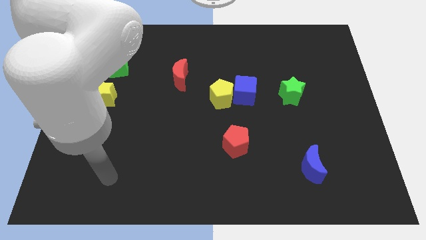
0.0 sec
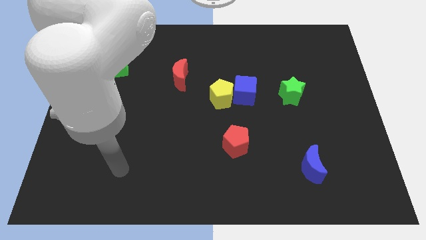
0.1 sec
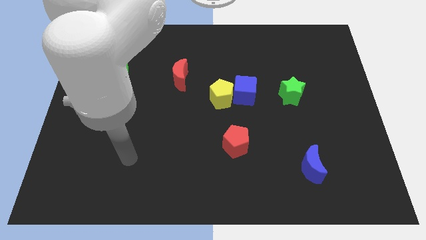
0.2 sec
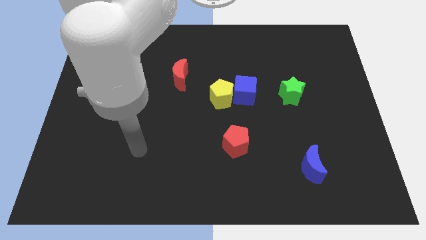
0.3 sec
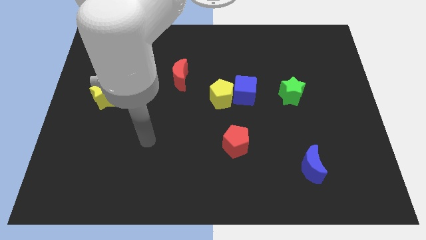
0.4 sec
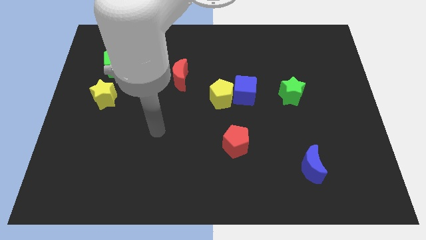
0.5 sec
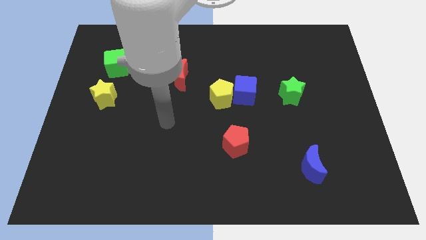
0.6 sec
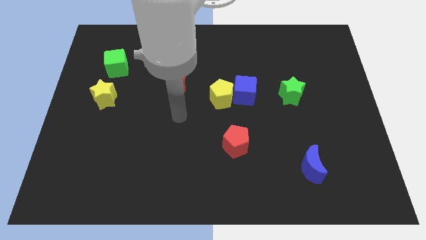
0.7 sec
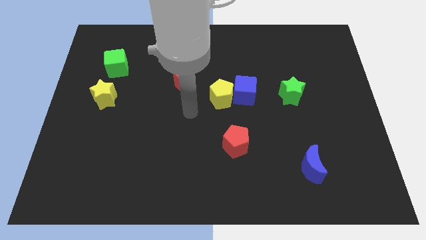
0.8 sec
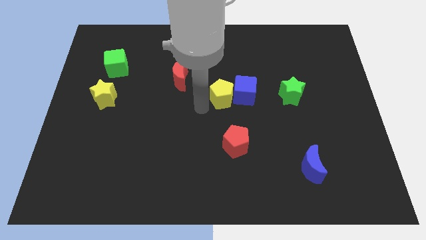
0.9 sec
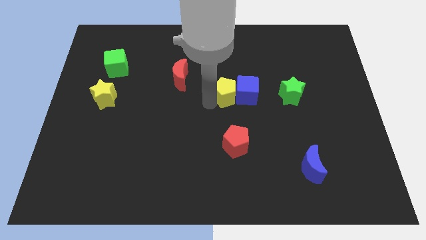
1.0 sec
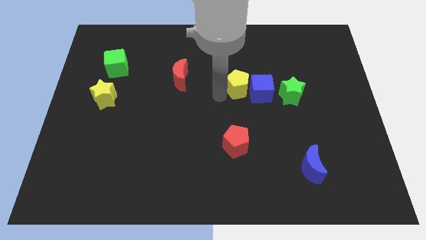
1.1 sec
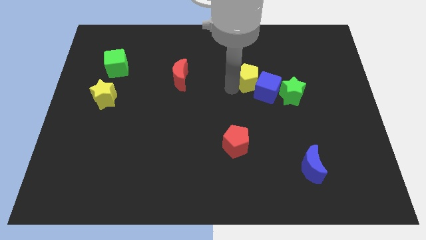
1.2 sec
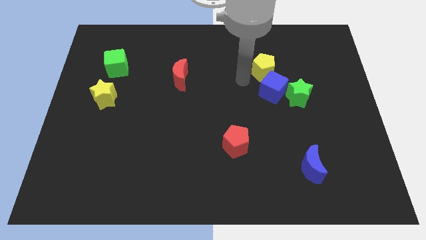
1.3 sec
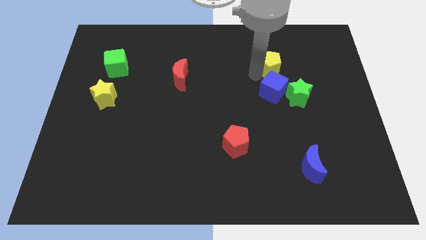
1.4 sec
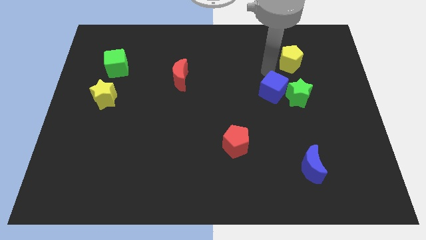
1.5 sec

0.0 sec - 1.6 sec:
move the blue cube away from the yellow pentagon

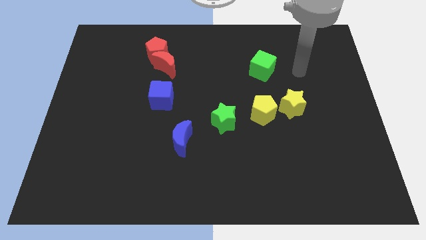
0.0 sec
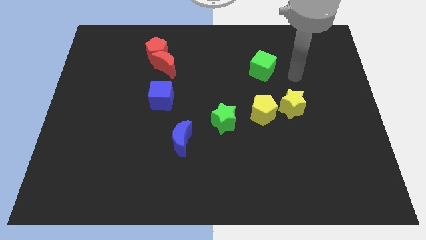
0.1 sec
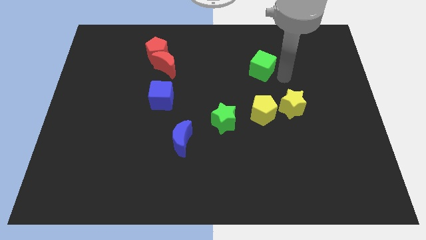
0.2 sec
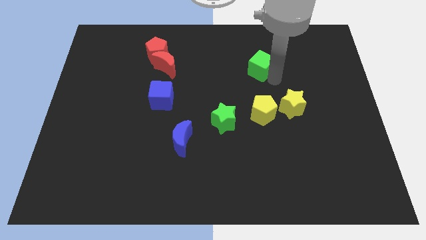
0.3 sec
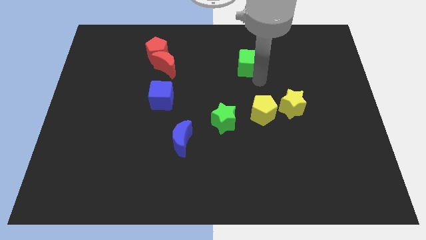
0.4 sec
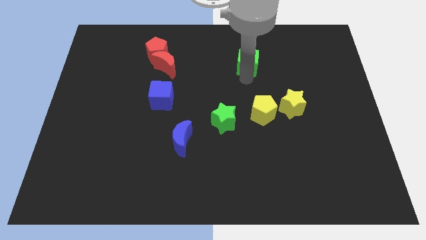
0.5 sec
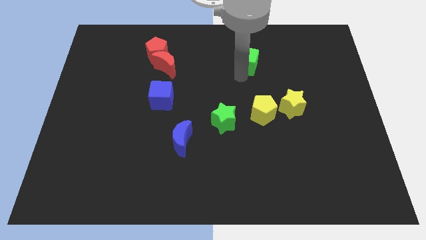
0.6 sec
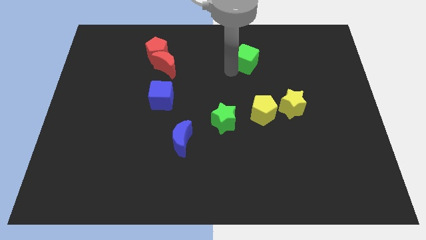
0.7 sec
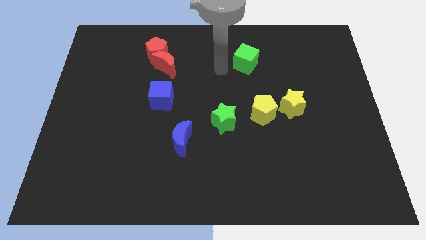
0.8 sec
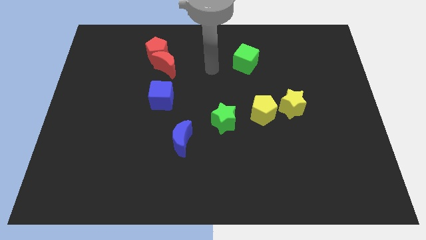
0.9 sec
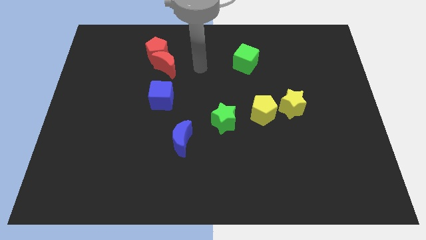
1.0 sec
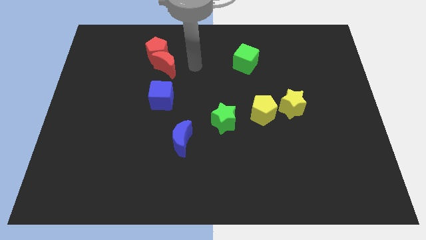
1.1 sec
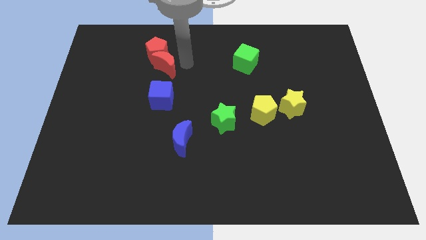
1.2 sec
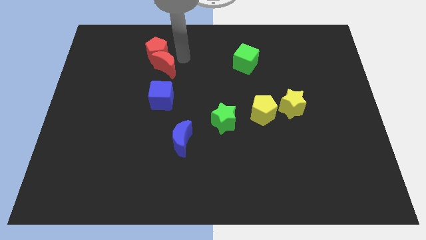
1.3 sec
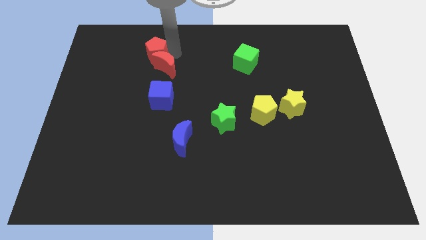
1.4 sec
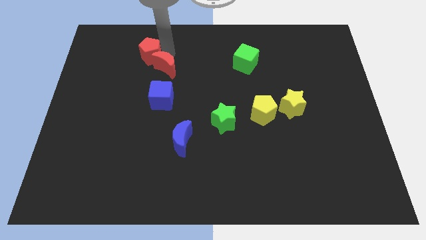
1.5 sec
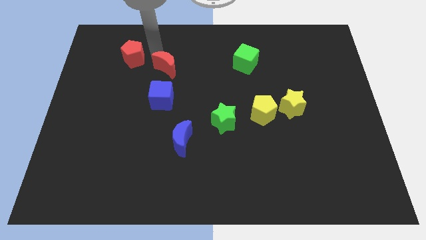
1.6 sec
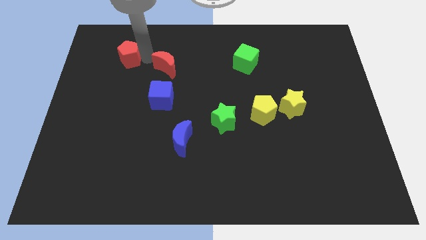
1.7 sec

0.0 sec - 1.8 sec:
separate the red moon from the red pentagon

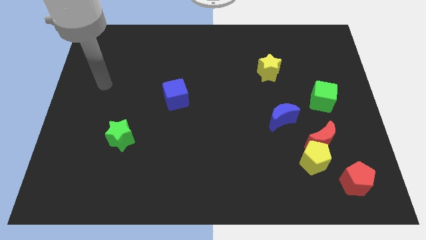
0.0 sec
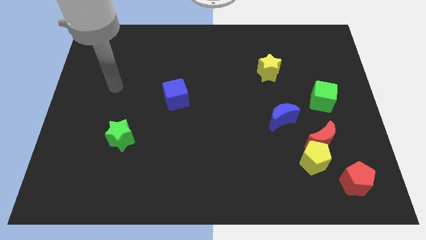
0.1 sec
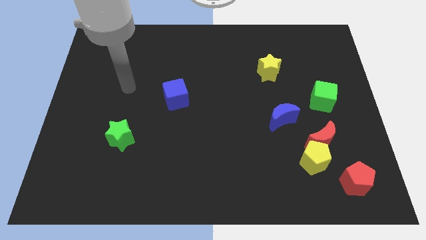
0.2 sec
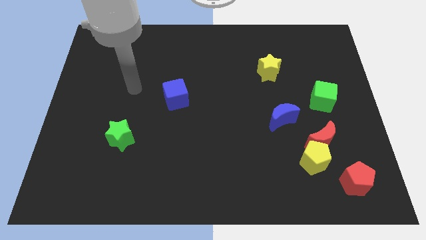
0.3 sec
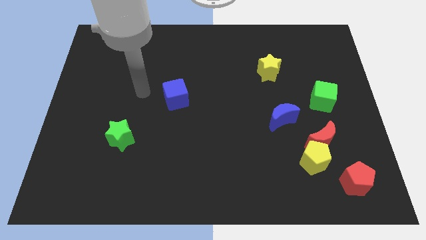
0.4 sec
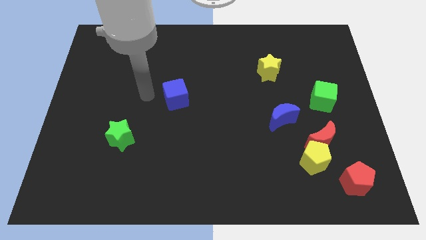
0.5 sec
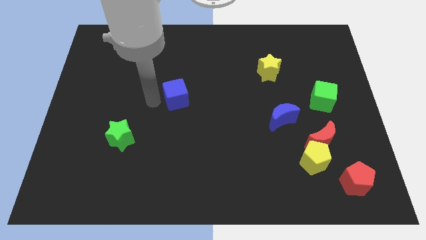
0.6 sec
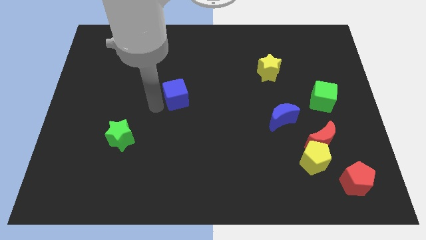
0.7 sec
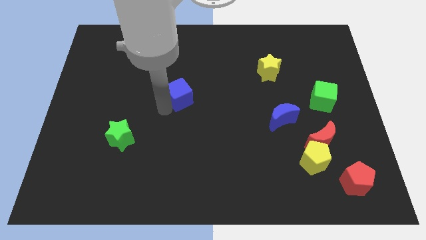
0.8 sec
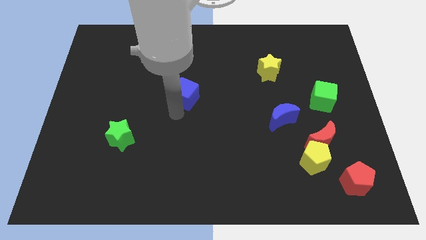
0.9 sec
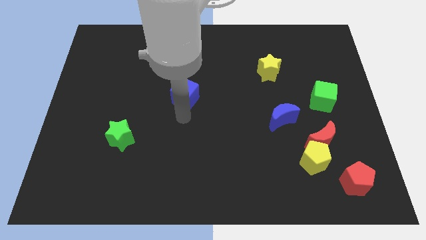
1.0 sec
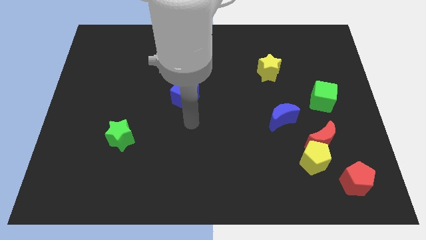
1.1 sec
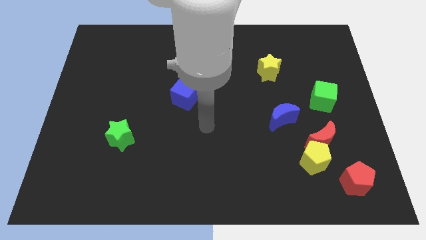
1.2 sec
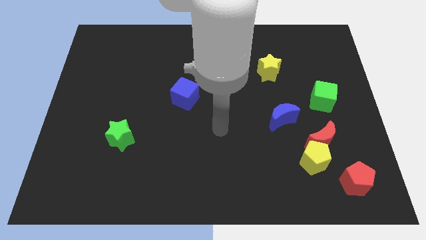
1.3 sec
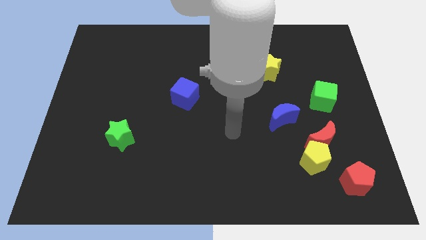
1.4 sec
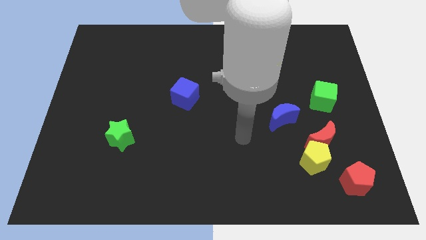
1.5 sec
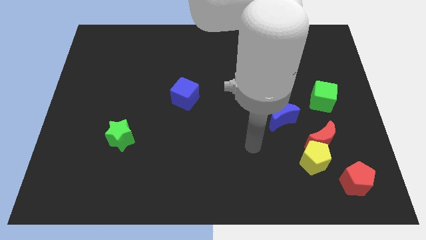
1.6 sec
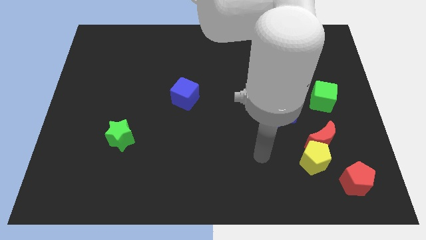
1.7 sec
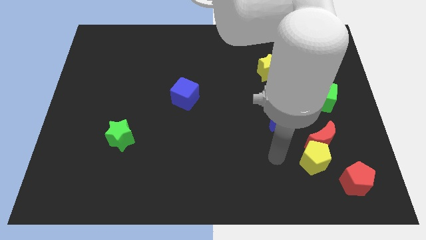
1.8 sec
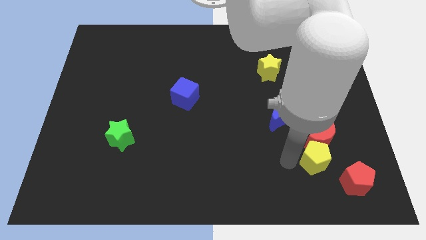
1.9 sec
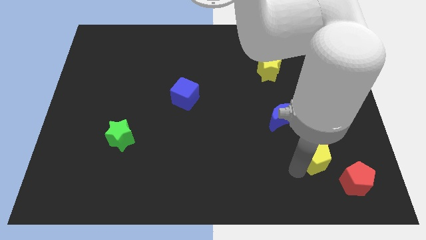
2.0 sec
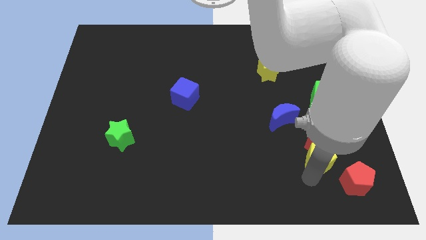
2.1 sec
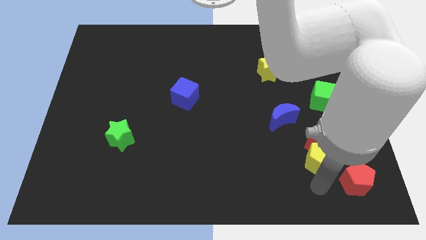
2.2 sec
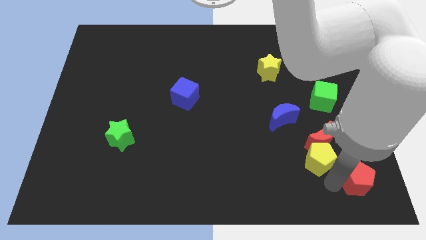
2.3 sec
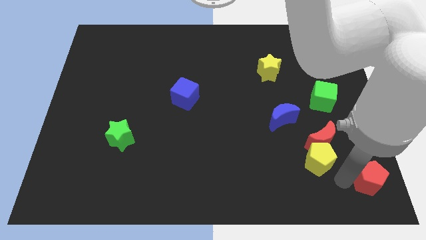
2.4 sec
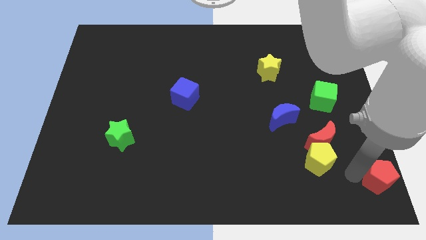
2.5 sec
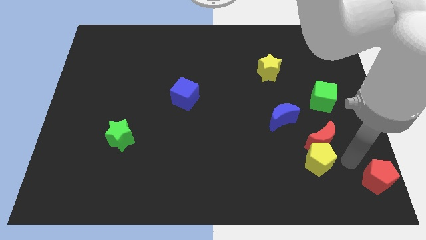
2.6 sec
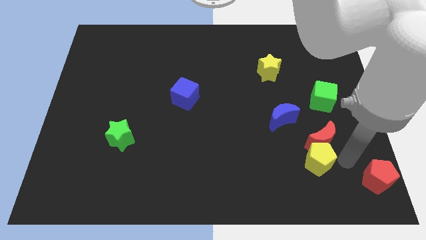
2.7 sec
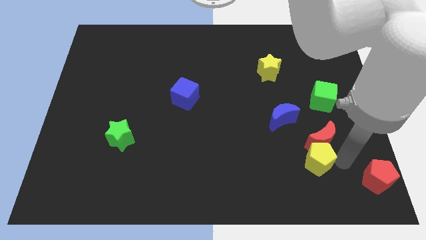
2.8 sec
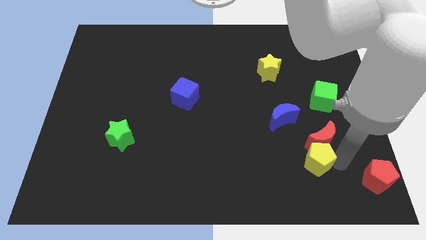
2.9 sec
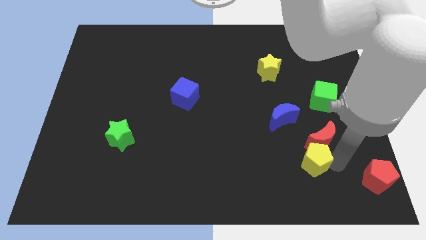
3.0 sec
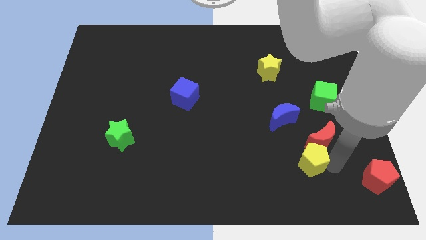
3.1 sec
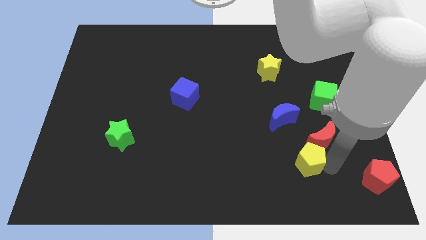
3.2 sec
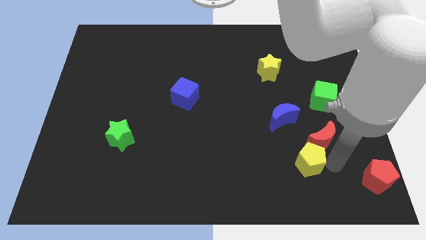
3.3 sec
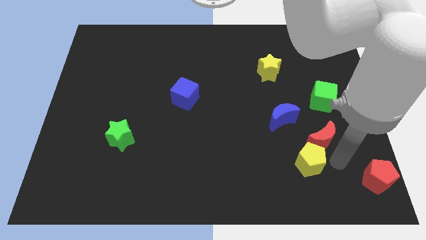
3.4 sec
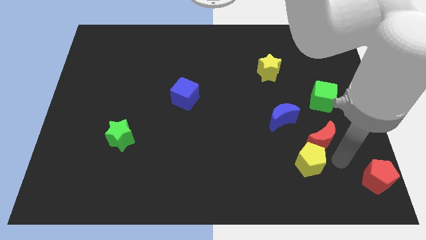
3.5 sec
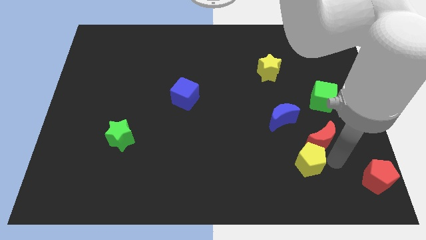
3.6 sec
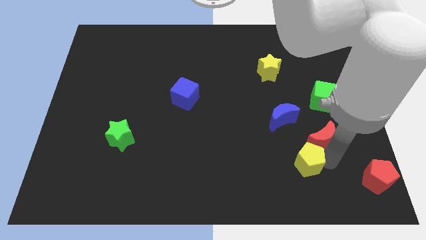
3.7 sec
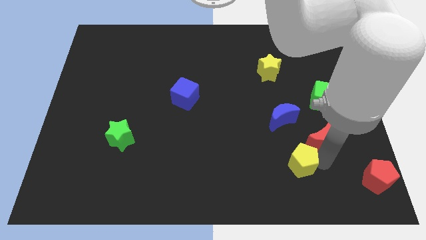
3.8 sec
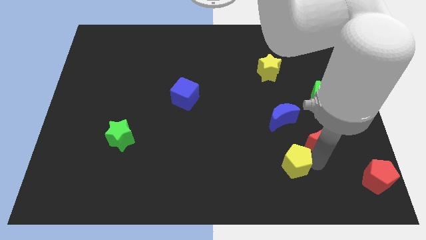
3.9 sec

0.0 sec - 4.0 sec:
separate the yellow pentagon from the red moon and red pentagon

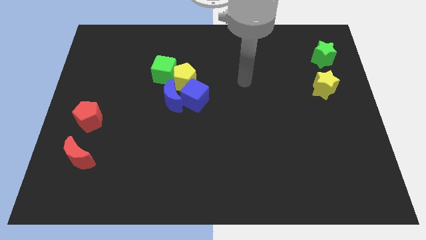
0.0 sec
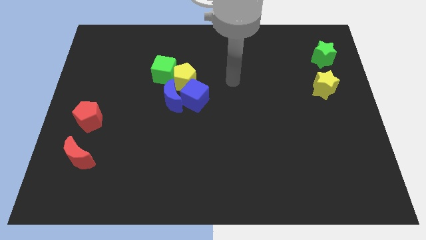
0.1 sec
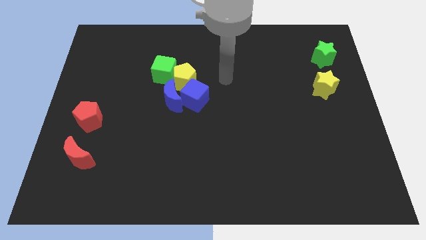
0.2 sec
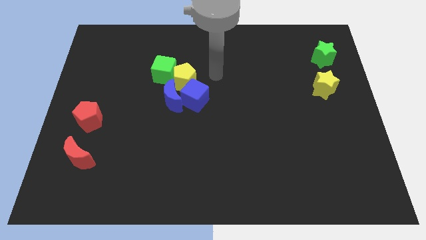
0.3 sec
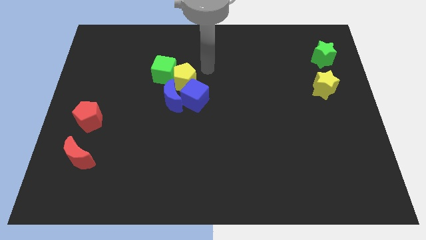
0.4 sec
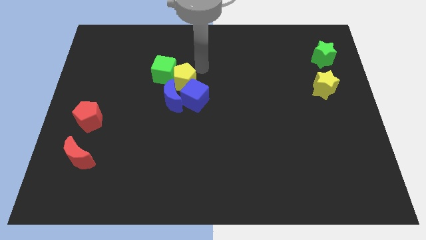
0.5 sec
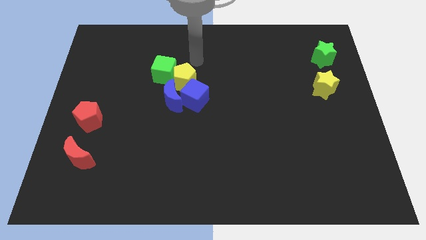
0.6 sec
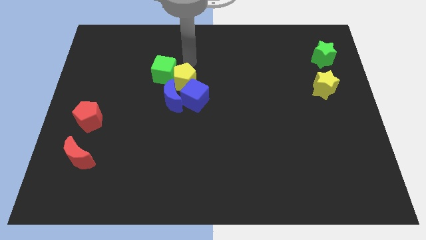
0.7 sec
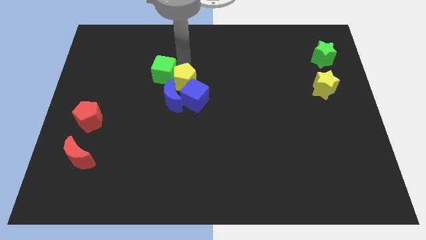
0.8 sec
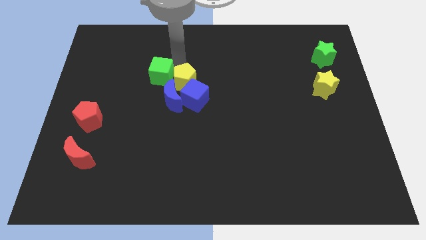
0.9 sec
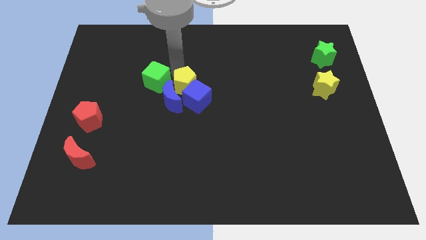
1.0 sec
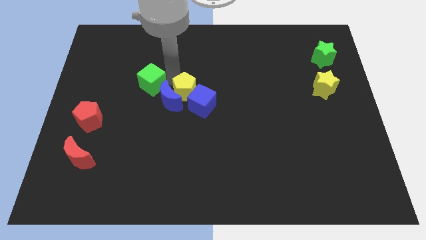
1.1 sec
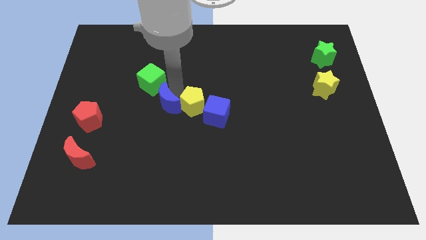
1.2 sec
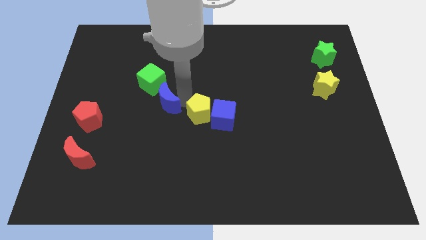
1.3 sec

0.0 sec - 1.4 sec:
separate the blue cube from the blue moon and yellow pentagon

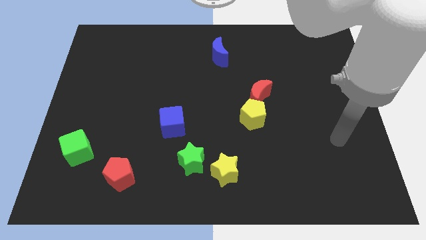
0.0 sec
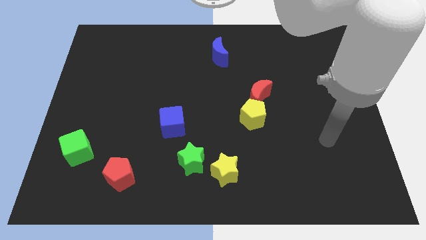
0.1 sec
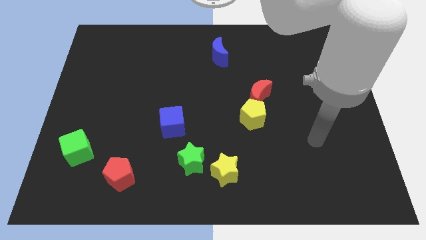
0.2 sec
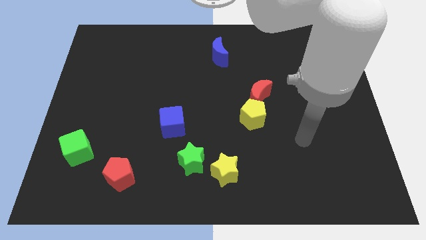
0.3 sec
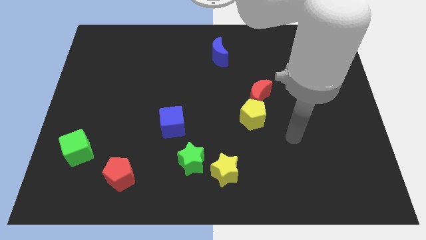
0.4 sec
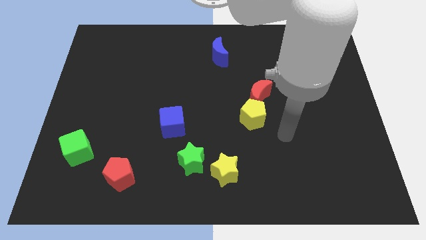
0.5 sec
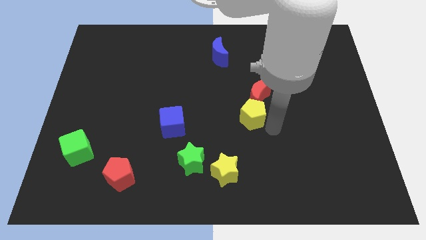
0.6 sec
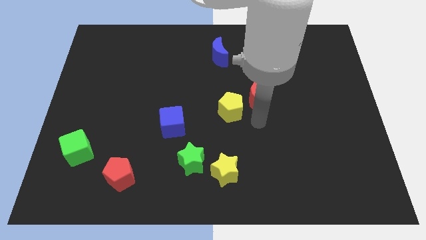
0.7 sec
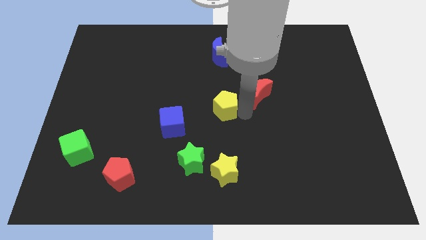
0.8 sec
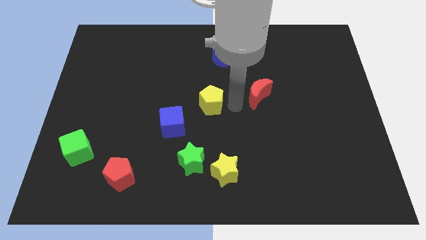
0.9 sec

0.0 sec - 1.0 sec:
pull the red moon apart from the yellow pentagon
